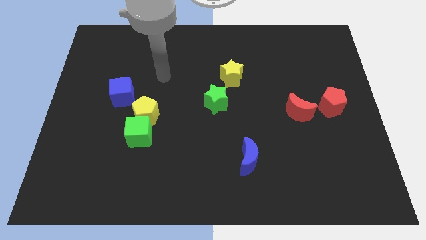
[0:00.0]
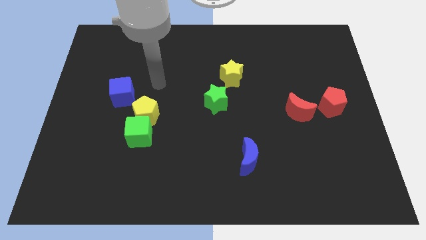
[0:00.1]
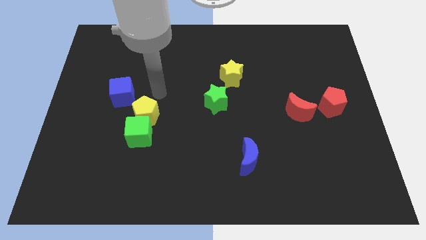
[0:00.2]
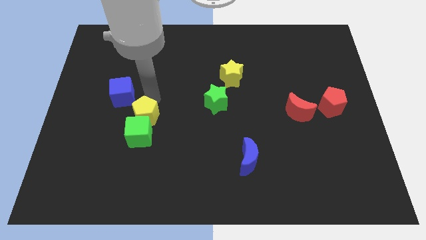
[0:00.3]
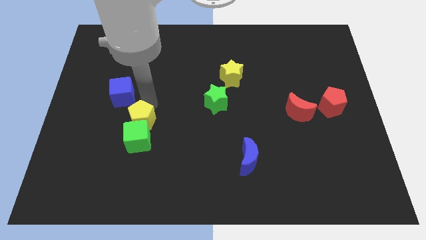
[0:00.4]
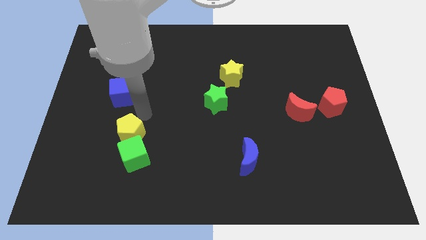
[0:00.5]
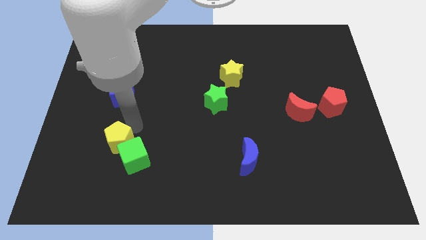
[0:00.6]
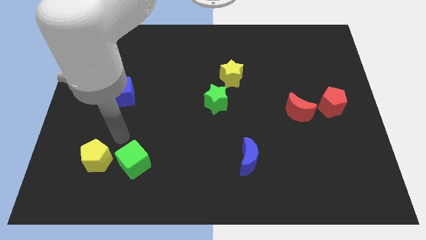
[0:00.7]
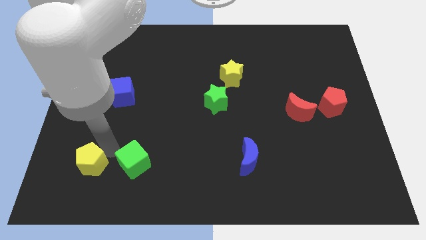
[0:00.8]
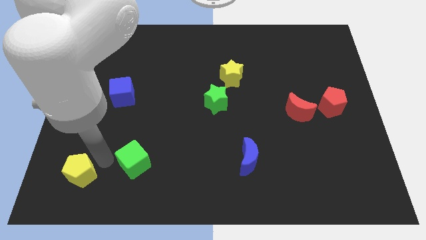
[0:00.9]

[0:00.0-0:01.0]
separate the green cube from the yellow pentagon

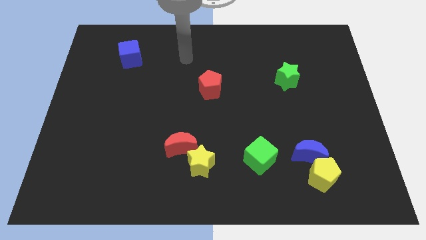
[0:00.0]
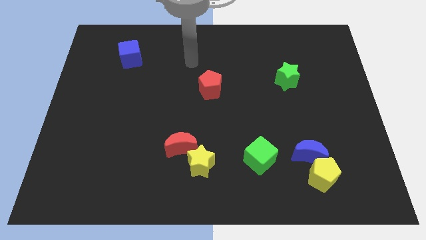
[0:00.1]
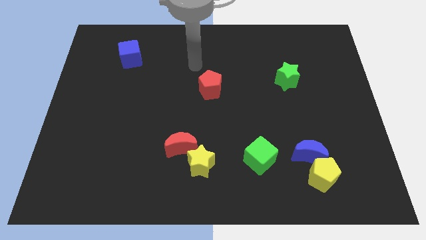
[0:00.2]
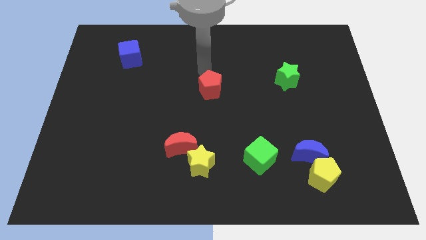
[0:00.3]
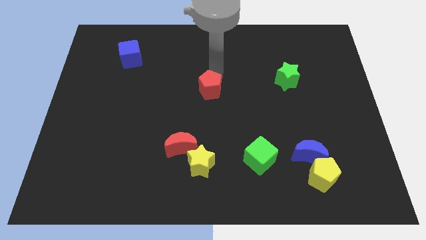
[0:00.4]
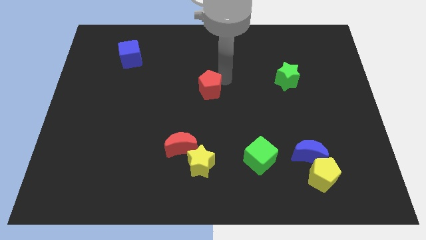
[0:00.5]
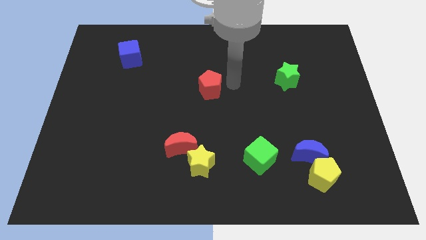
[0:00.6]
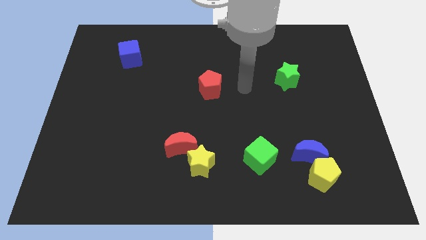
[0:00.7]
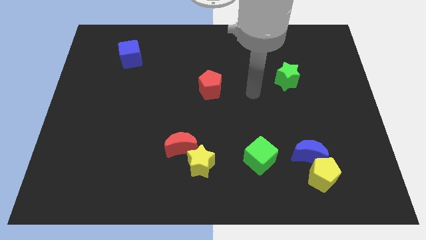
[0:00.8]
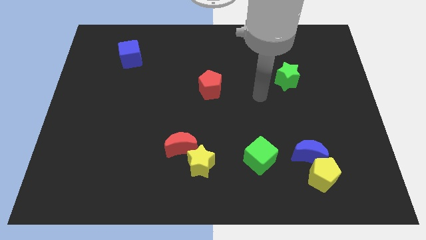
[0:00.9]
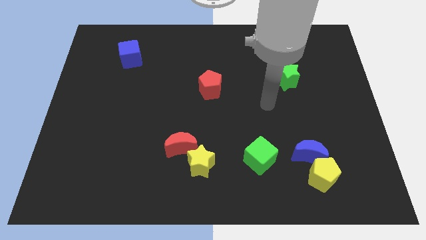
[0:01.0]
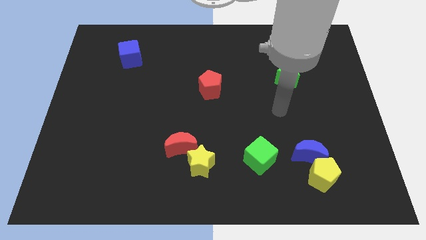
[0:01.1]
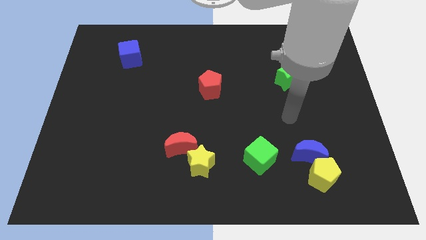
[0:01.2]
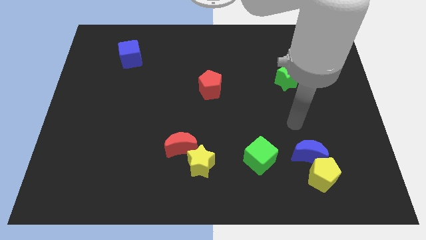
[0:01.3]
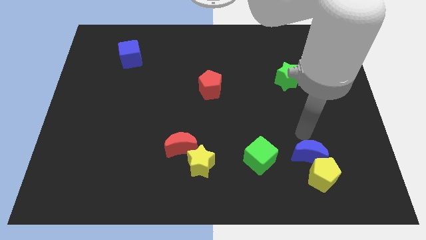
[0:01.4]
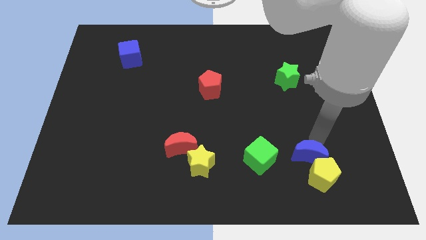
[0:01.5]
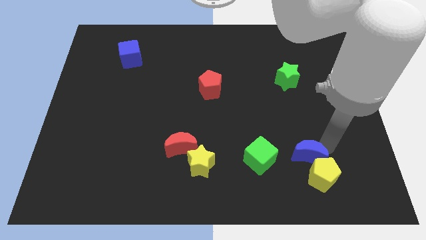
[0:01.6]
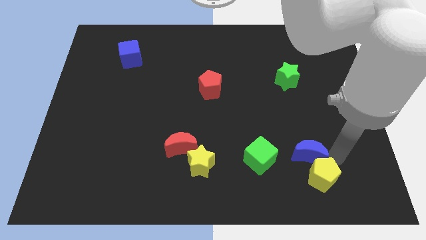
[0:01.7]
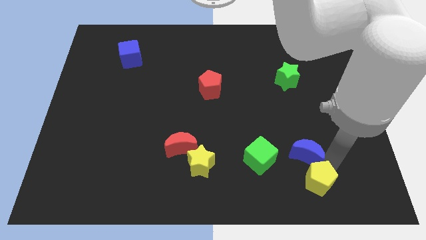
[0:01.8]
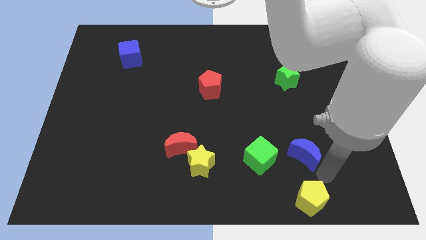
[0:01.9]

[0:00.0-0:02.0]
separate the blue moon from the yellow pentagon

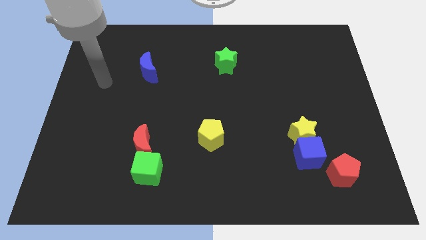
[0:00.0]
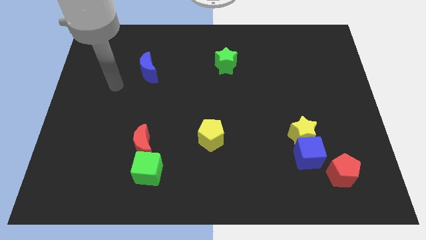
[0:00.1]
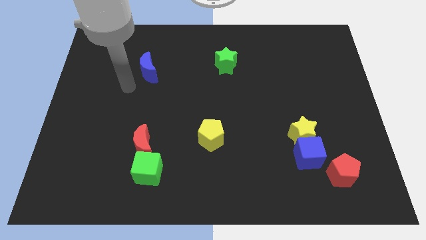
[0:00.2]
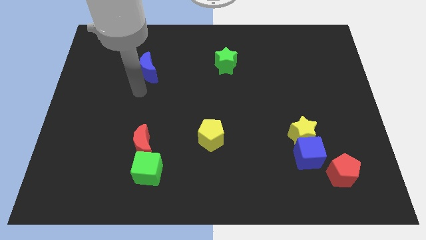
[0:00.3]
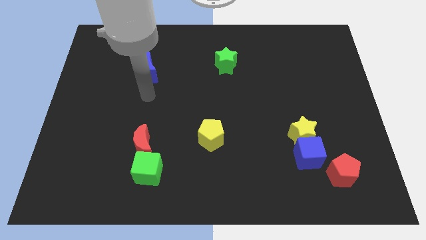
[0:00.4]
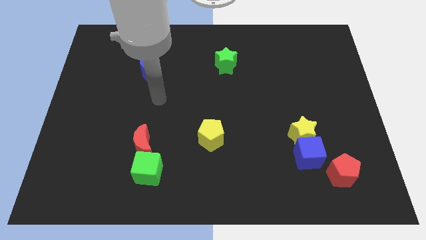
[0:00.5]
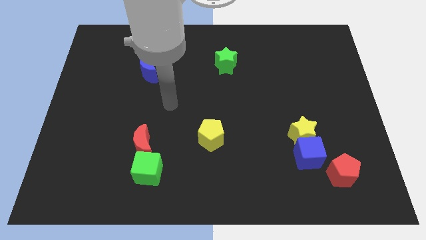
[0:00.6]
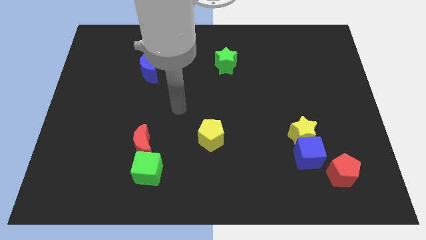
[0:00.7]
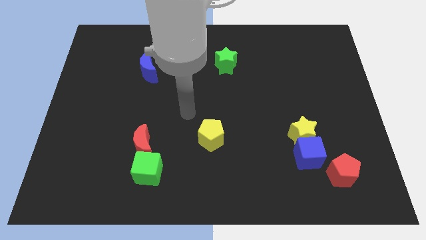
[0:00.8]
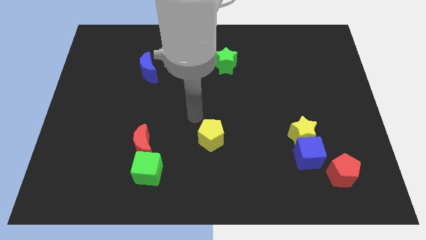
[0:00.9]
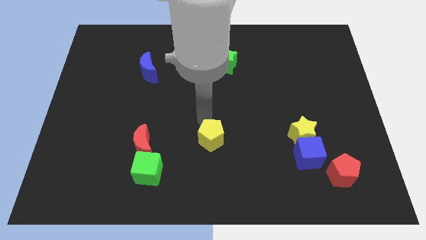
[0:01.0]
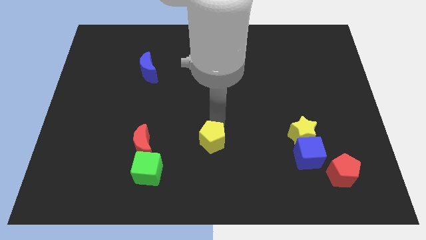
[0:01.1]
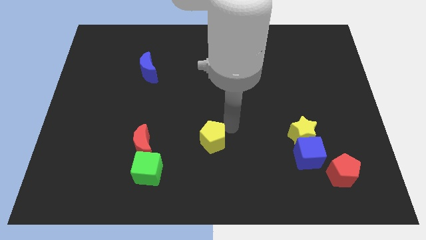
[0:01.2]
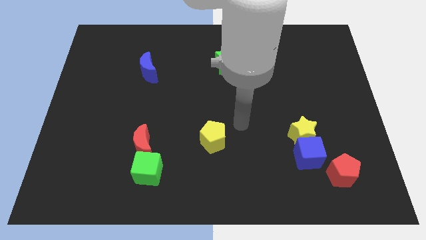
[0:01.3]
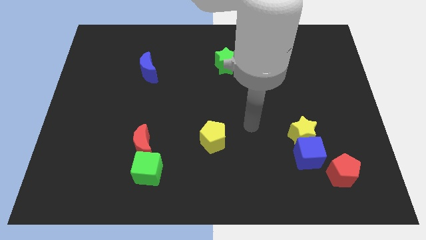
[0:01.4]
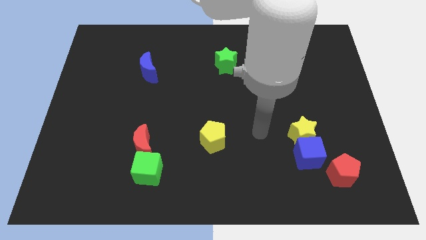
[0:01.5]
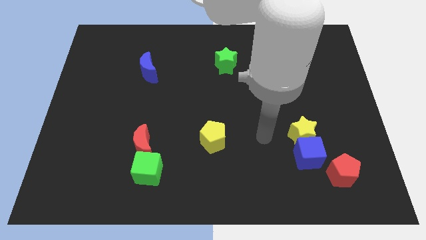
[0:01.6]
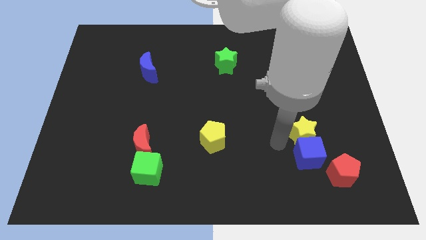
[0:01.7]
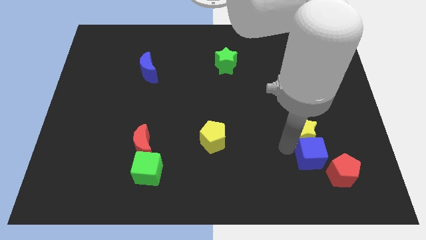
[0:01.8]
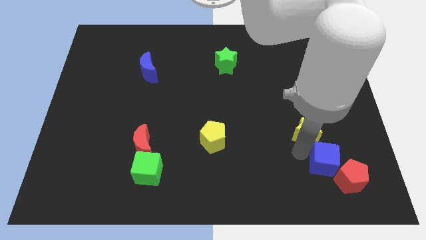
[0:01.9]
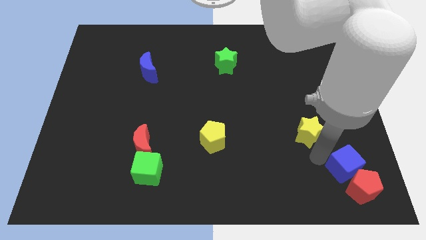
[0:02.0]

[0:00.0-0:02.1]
separate the yellow star from the blue cube

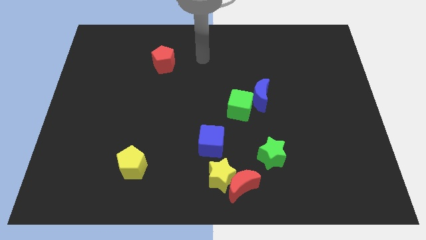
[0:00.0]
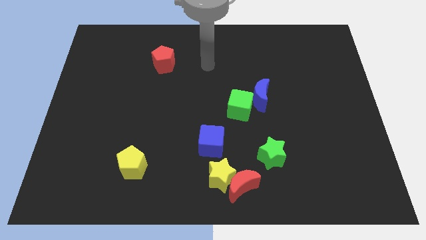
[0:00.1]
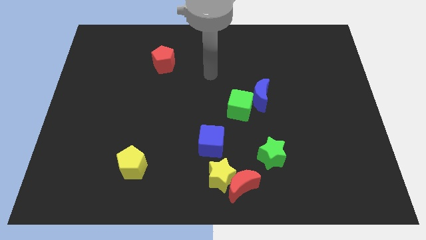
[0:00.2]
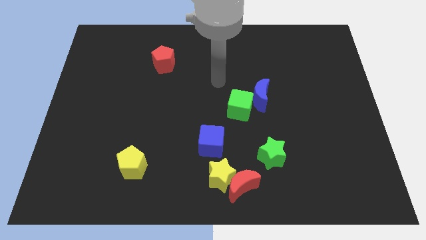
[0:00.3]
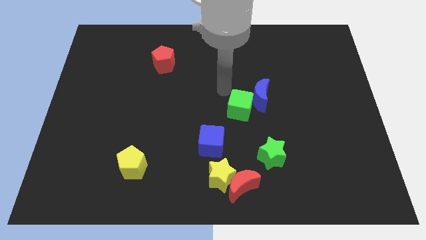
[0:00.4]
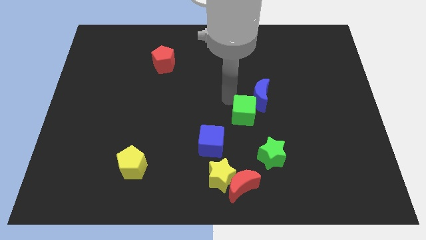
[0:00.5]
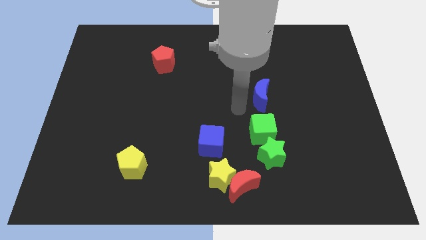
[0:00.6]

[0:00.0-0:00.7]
separate the blue moon from the green cube

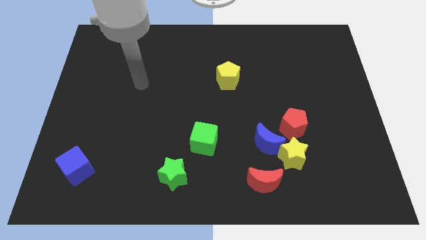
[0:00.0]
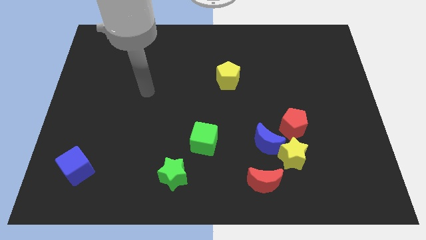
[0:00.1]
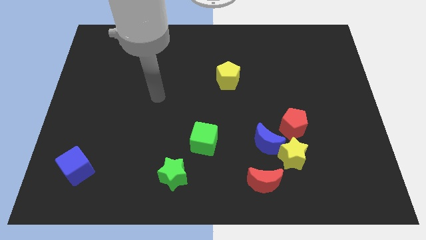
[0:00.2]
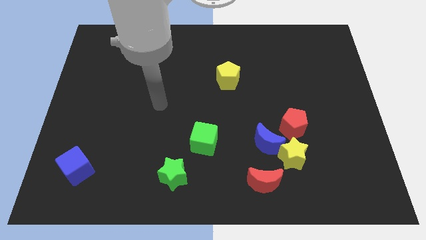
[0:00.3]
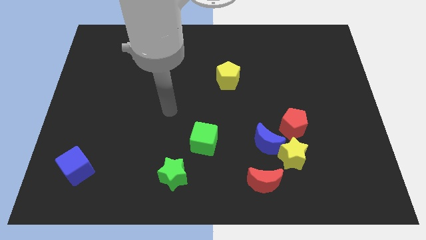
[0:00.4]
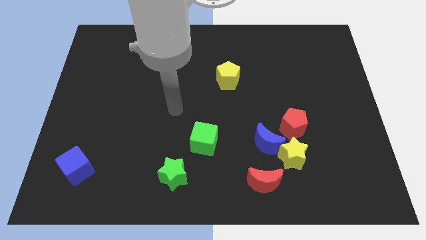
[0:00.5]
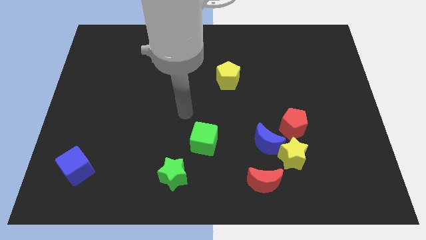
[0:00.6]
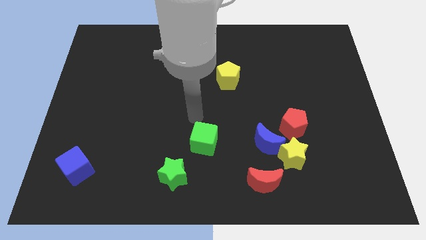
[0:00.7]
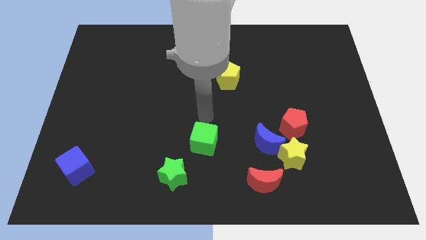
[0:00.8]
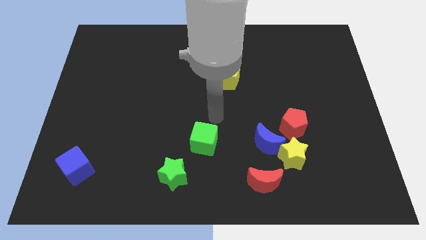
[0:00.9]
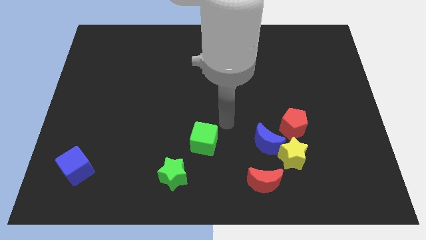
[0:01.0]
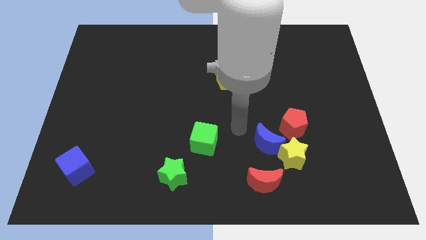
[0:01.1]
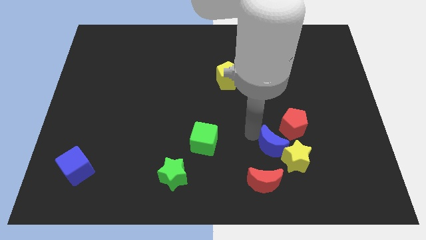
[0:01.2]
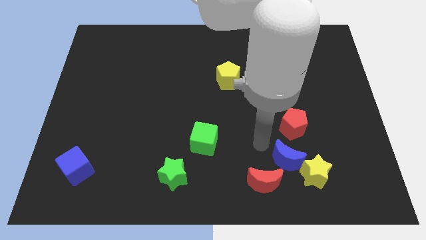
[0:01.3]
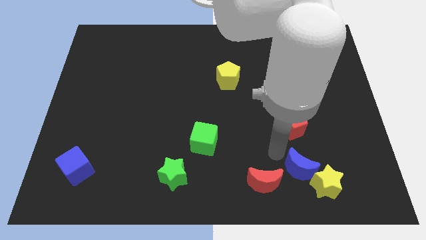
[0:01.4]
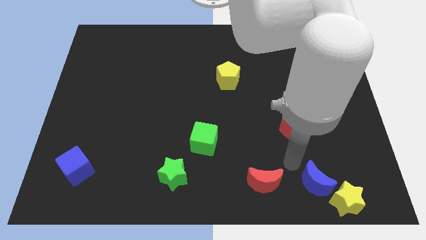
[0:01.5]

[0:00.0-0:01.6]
pull the yellow star apart from the group

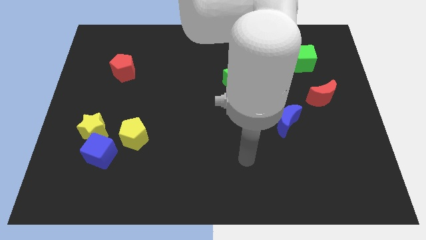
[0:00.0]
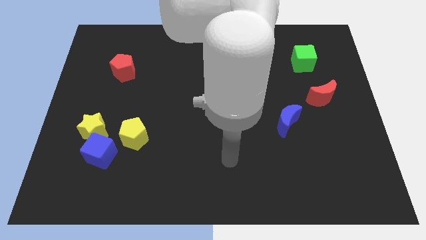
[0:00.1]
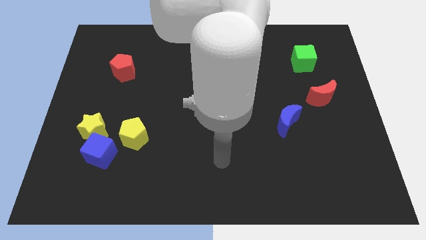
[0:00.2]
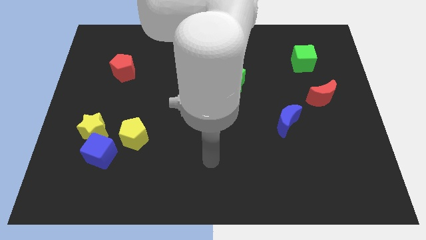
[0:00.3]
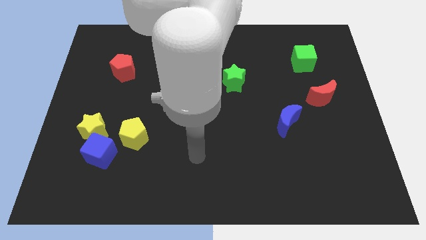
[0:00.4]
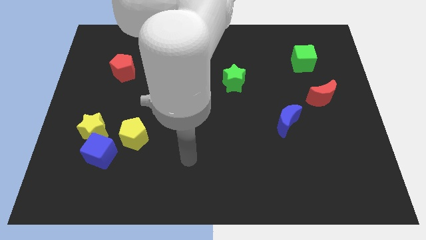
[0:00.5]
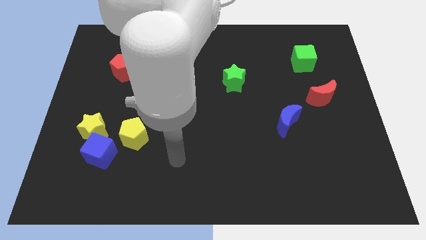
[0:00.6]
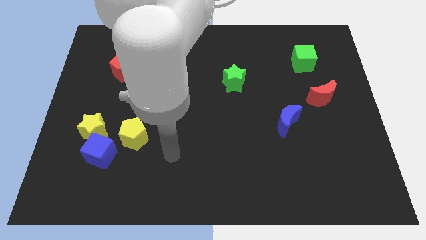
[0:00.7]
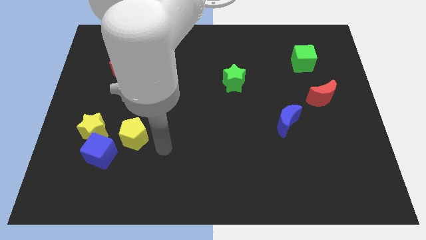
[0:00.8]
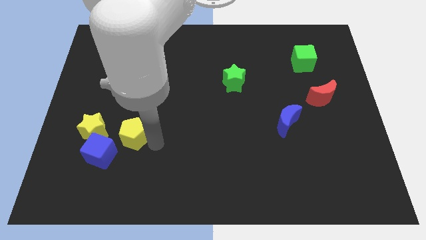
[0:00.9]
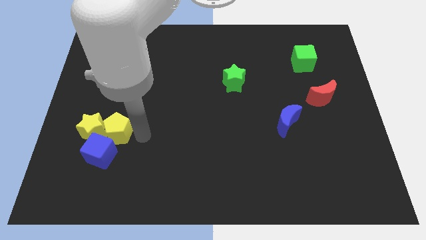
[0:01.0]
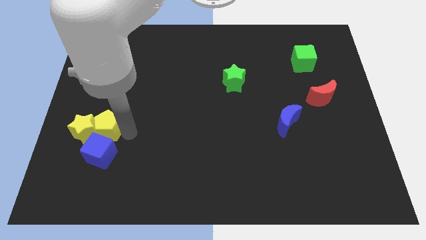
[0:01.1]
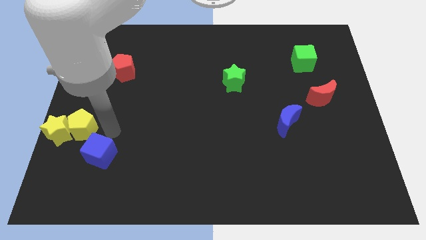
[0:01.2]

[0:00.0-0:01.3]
pull the blue cube apart from the yellow star and yellow pentagon

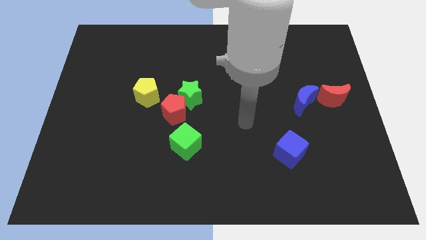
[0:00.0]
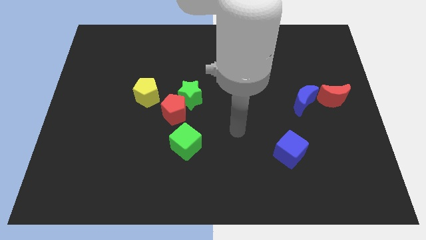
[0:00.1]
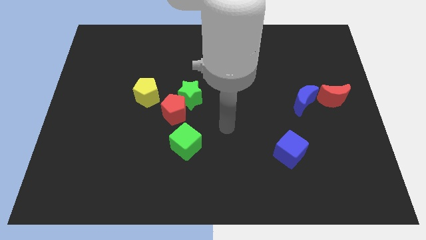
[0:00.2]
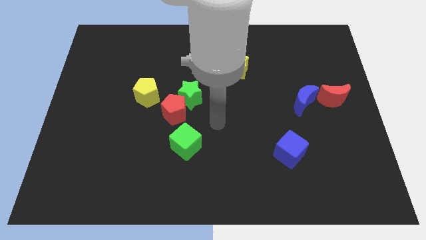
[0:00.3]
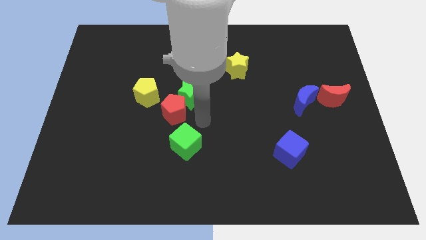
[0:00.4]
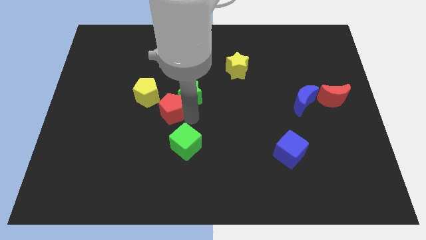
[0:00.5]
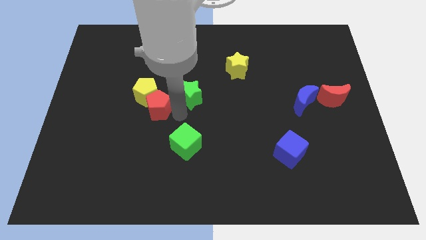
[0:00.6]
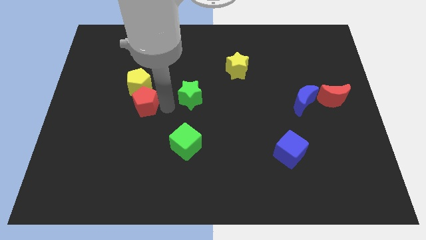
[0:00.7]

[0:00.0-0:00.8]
separate the green star from the red pentagon
